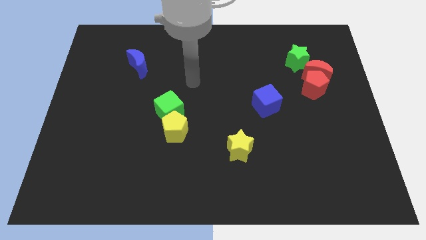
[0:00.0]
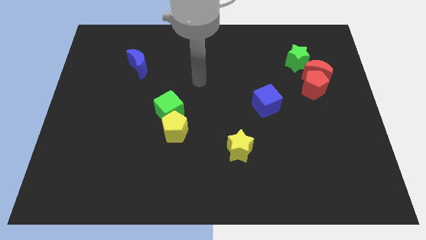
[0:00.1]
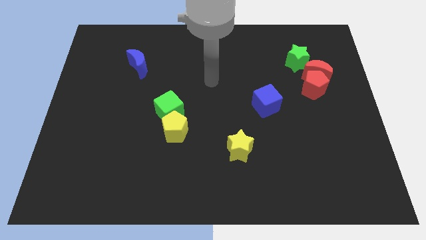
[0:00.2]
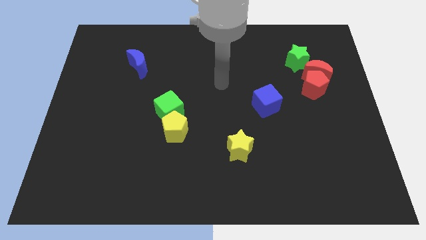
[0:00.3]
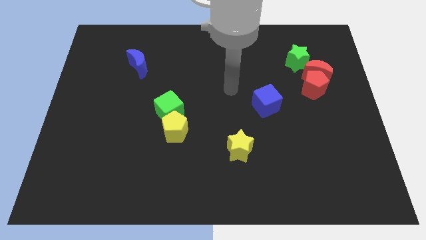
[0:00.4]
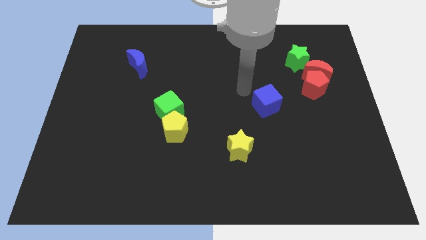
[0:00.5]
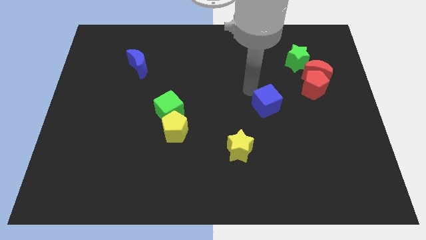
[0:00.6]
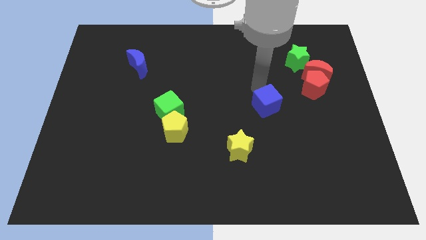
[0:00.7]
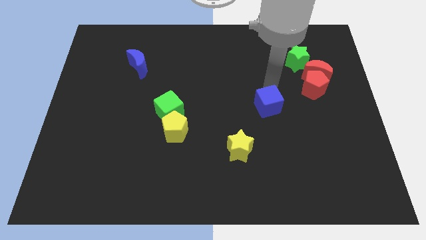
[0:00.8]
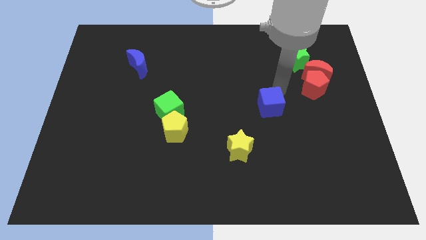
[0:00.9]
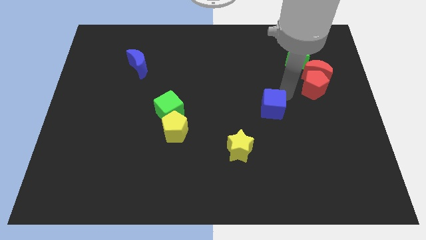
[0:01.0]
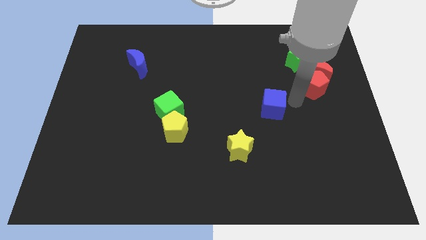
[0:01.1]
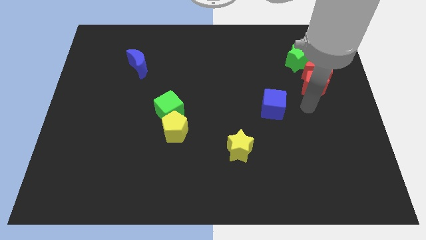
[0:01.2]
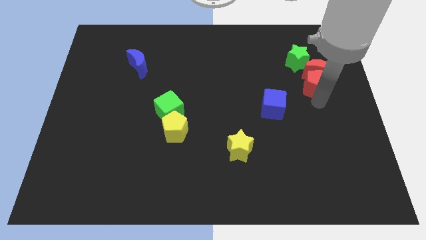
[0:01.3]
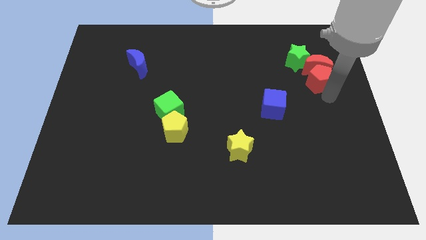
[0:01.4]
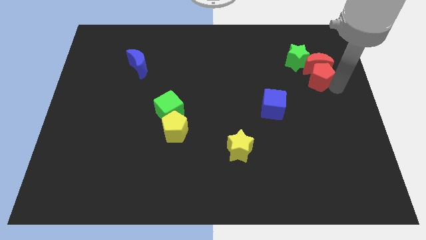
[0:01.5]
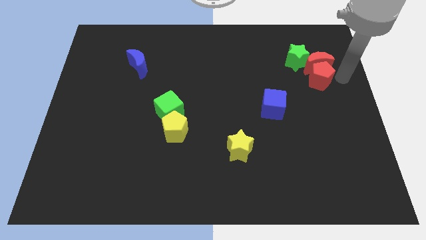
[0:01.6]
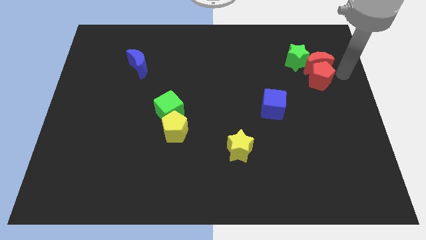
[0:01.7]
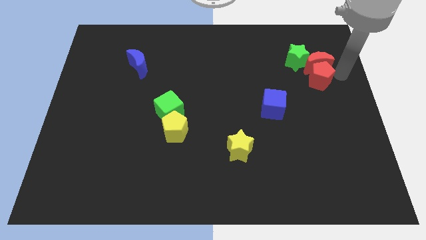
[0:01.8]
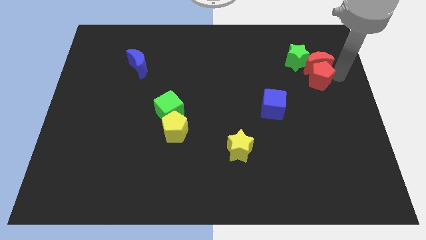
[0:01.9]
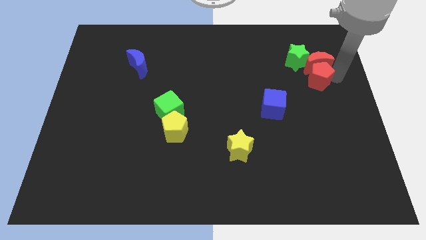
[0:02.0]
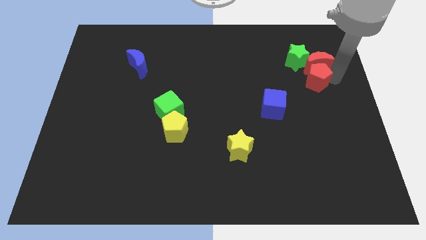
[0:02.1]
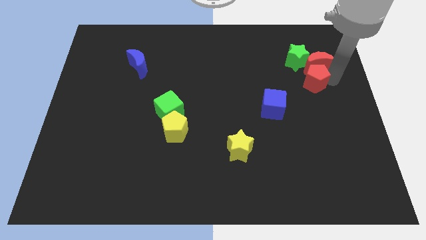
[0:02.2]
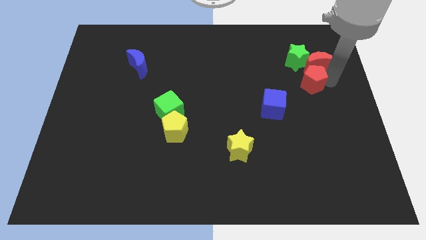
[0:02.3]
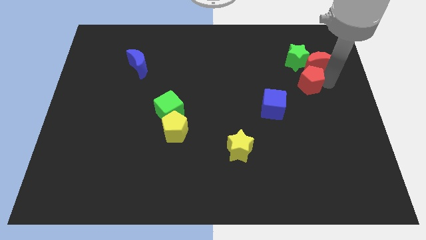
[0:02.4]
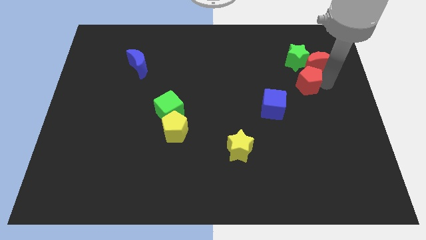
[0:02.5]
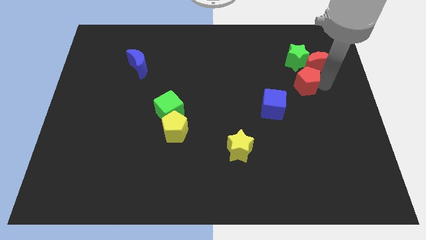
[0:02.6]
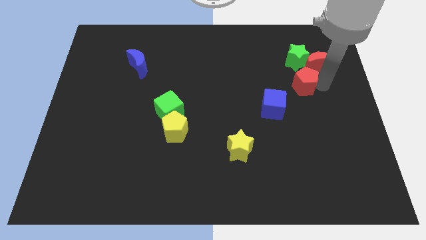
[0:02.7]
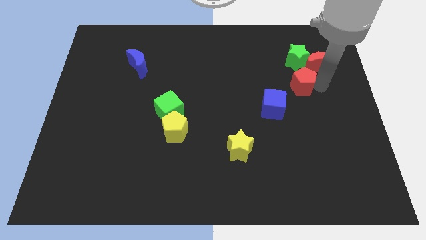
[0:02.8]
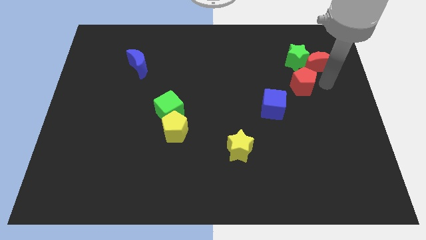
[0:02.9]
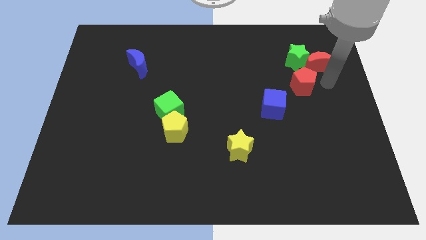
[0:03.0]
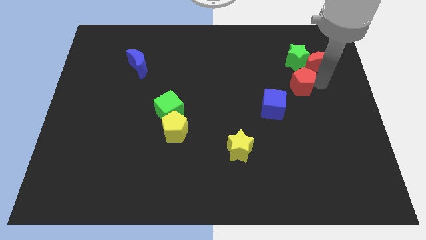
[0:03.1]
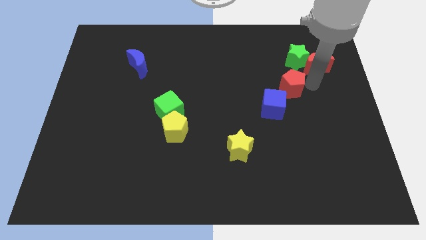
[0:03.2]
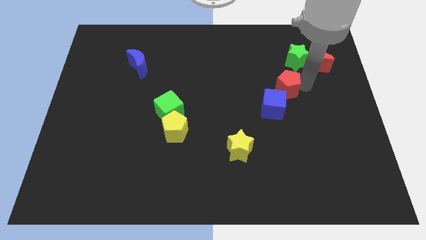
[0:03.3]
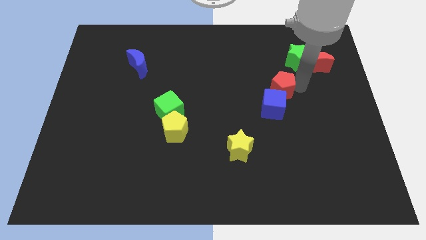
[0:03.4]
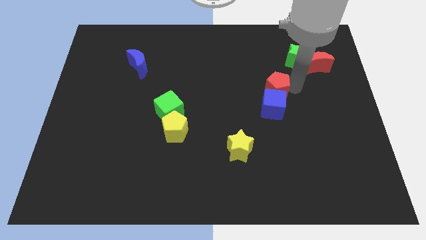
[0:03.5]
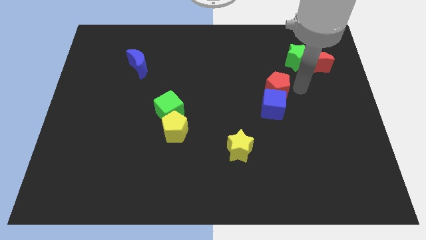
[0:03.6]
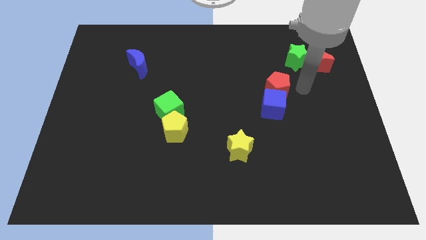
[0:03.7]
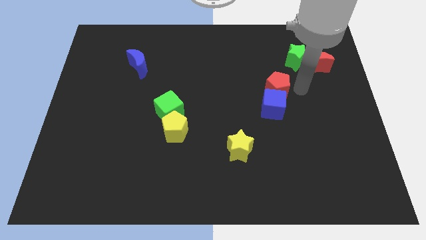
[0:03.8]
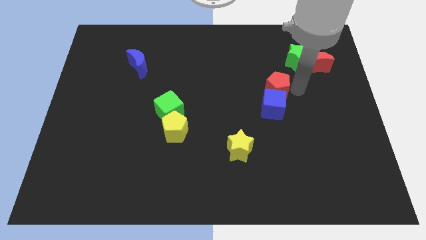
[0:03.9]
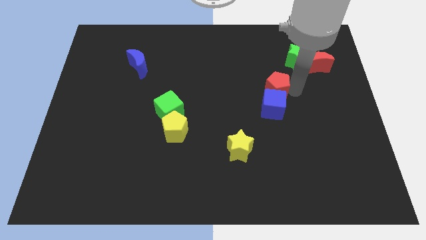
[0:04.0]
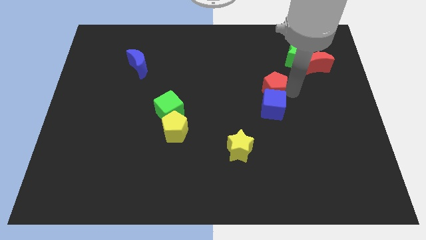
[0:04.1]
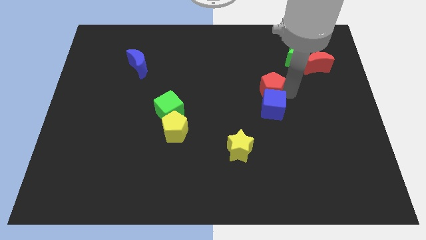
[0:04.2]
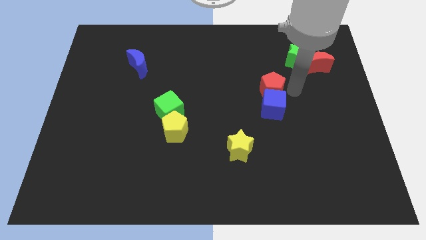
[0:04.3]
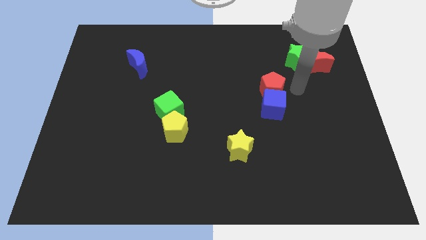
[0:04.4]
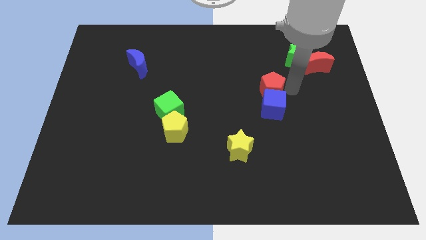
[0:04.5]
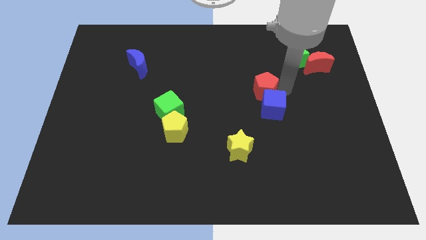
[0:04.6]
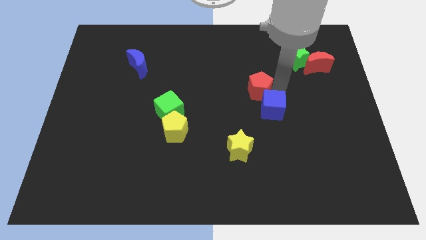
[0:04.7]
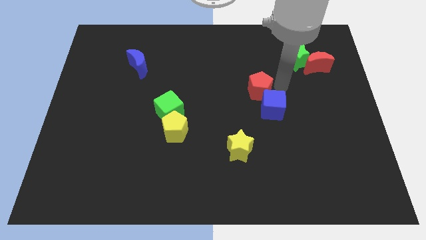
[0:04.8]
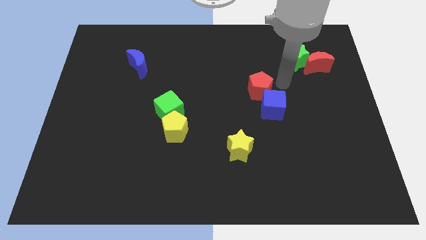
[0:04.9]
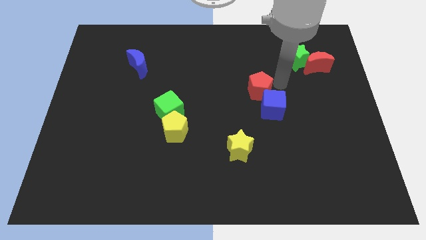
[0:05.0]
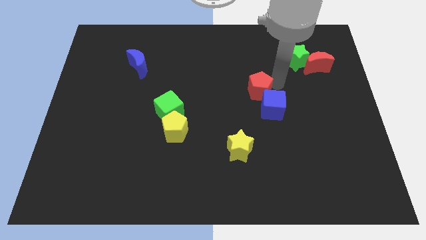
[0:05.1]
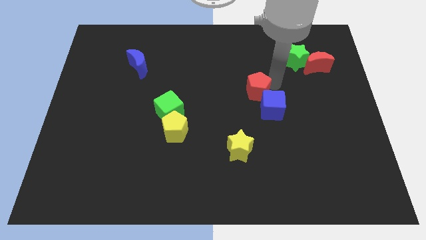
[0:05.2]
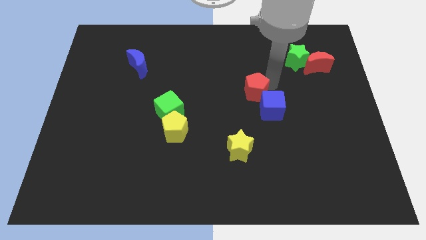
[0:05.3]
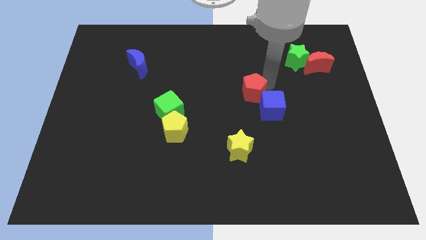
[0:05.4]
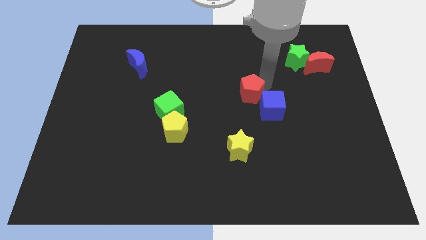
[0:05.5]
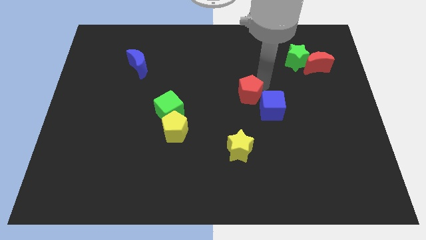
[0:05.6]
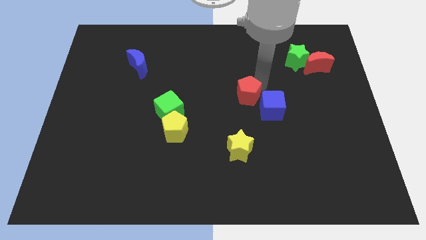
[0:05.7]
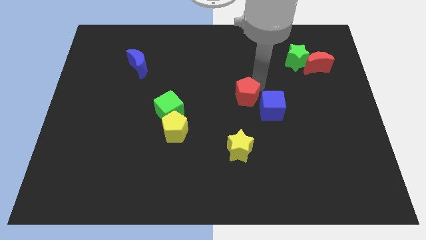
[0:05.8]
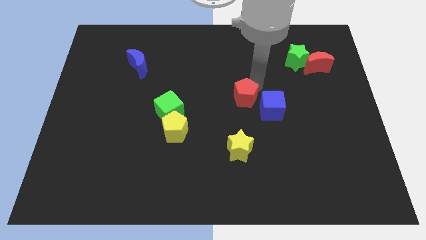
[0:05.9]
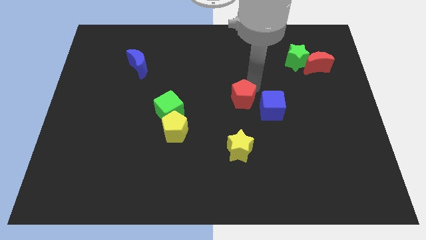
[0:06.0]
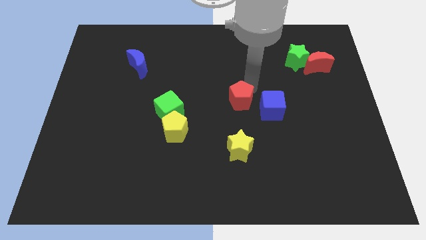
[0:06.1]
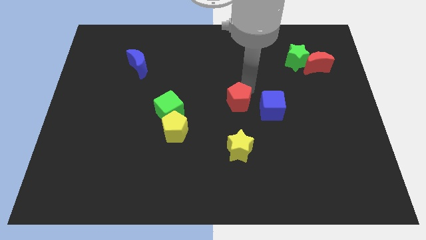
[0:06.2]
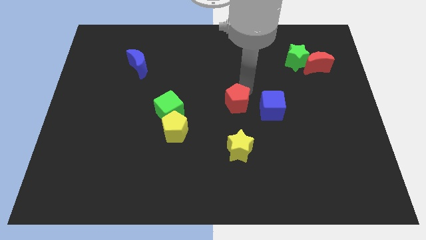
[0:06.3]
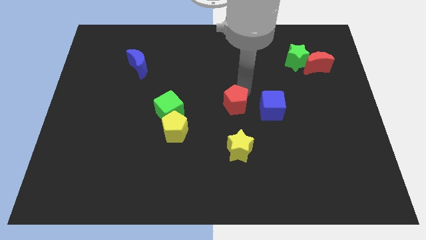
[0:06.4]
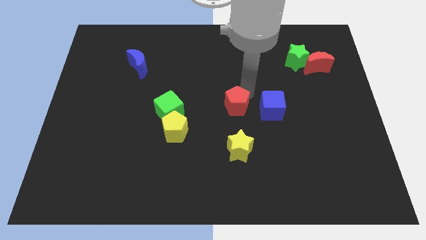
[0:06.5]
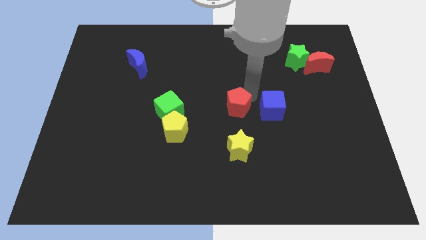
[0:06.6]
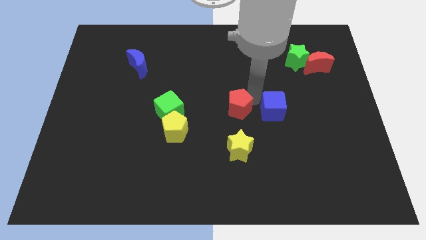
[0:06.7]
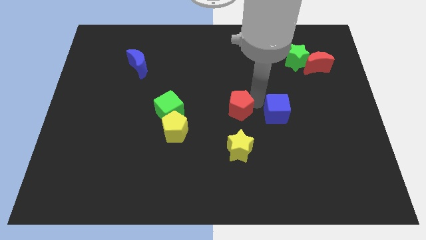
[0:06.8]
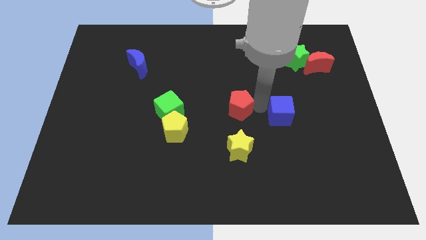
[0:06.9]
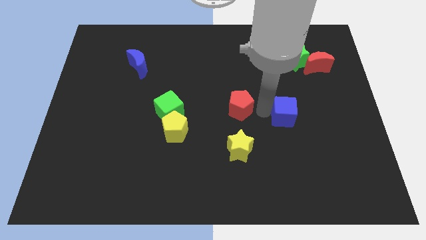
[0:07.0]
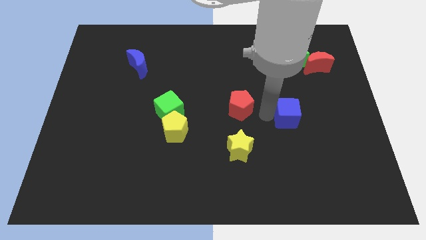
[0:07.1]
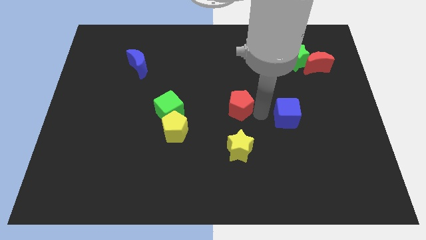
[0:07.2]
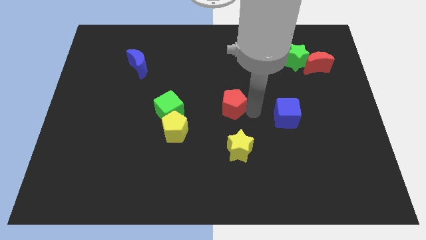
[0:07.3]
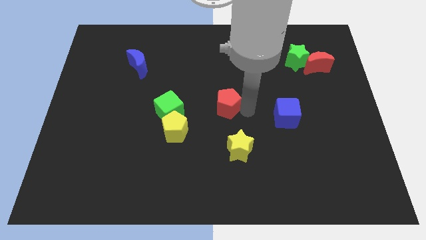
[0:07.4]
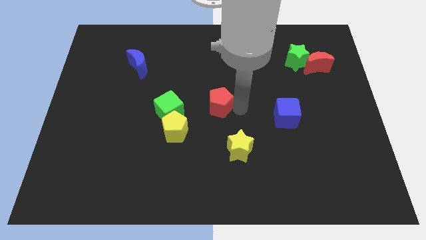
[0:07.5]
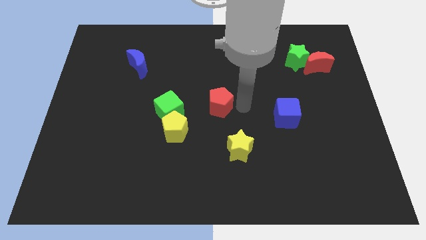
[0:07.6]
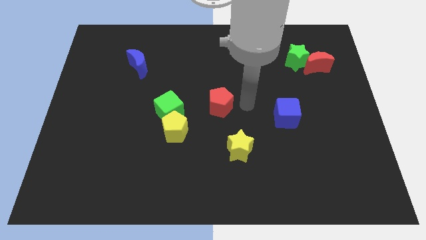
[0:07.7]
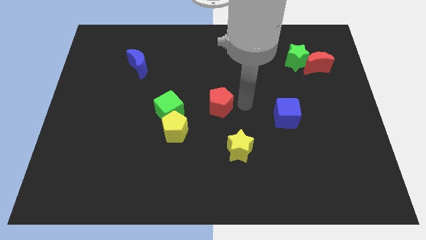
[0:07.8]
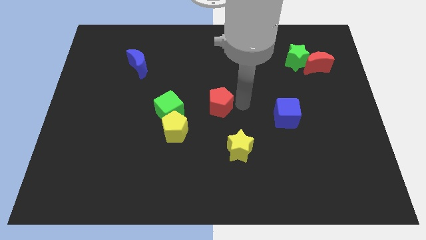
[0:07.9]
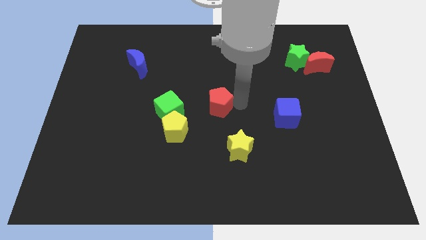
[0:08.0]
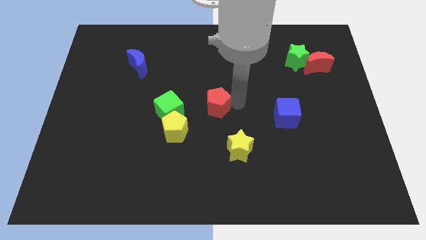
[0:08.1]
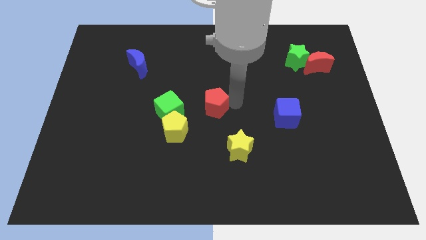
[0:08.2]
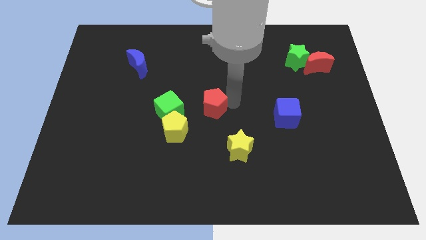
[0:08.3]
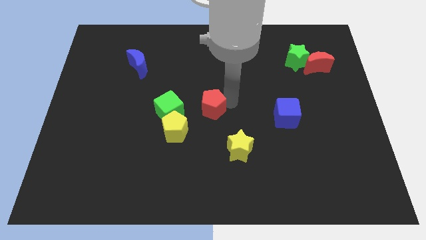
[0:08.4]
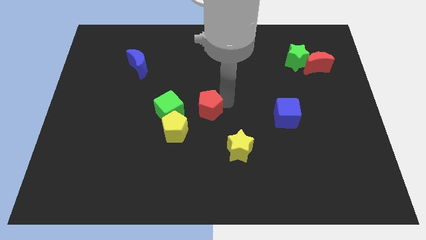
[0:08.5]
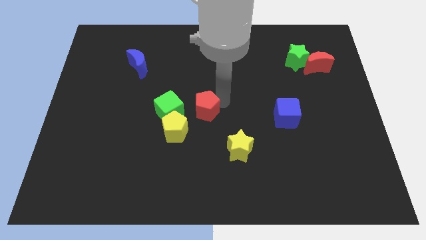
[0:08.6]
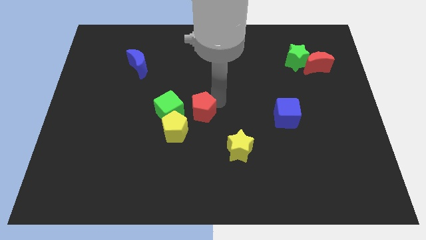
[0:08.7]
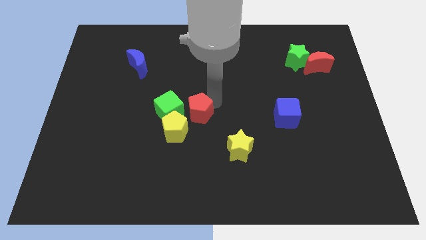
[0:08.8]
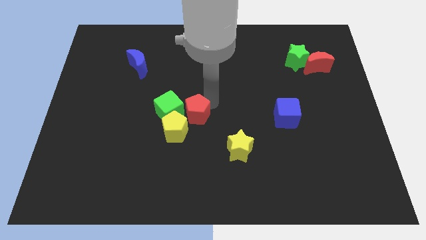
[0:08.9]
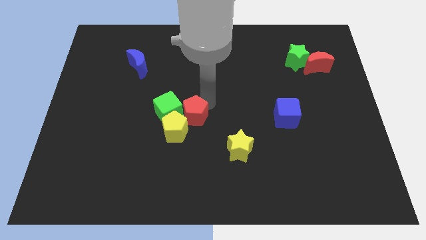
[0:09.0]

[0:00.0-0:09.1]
slide the red pentagon close to the green cube
